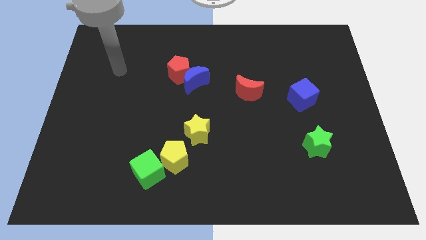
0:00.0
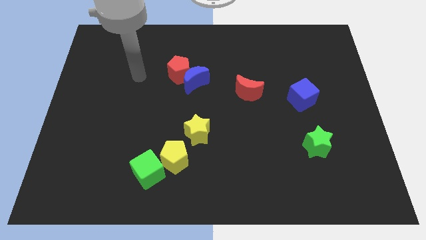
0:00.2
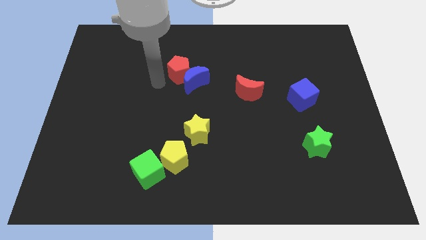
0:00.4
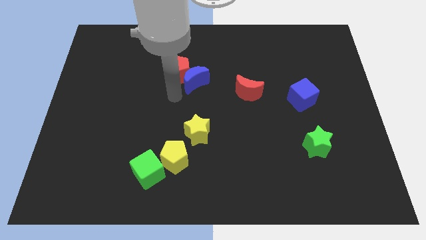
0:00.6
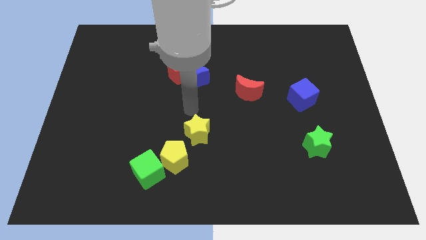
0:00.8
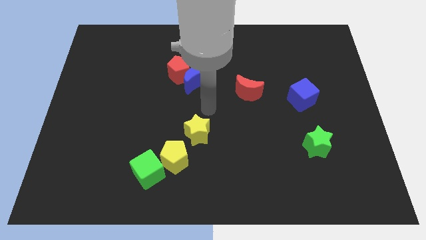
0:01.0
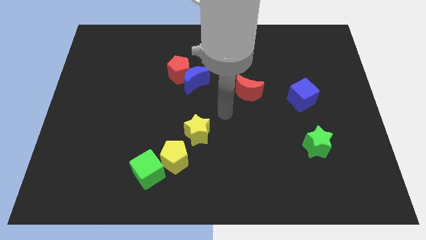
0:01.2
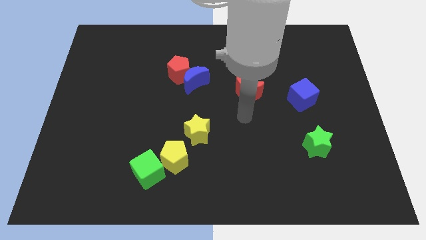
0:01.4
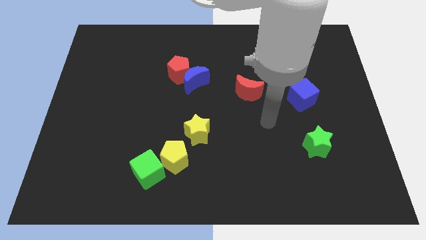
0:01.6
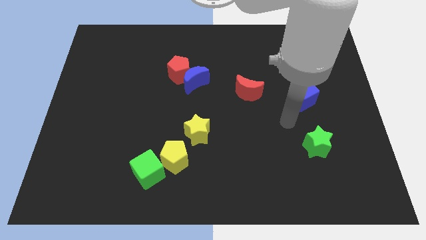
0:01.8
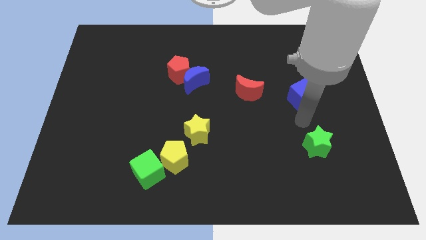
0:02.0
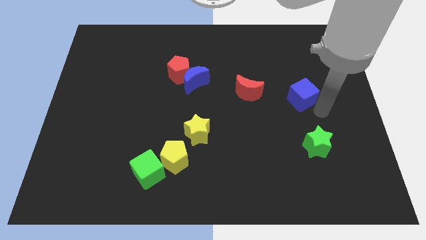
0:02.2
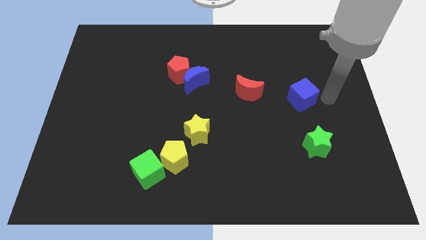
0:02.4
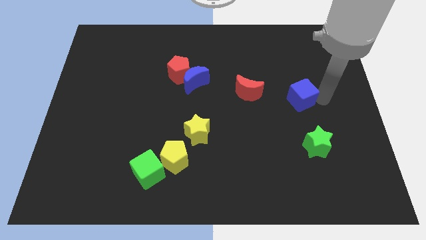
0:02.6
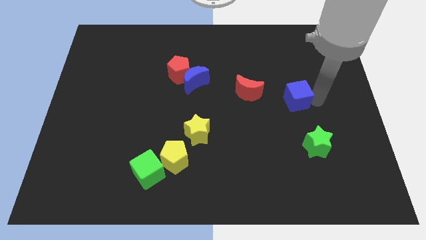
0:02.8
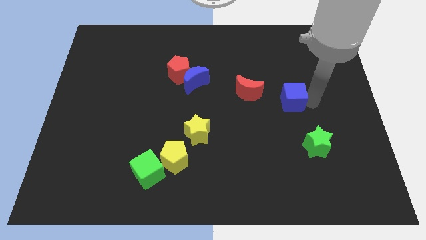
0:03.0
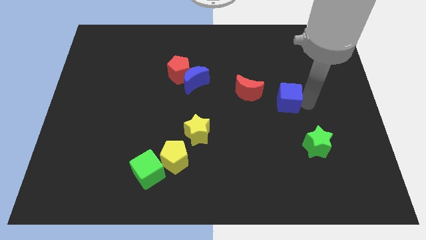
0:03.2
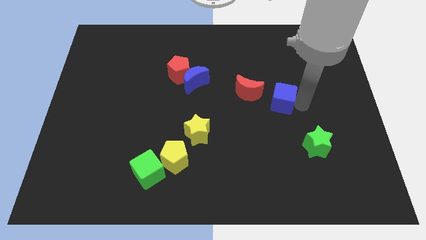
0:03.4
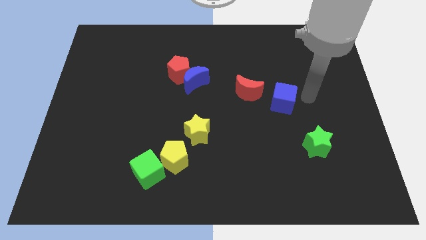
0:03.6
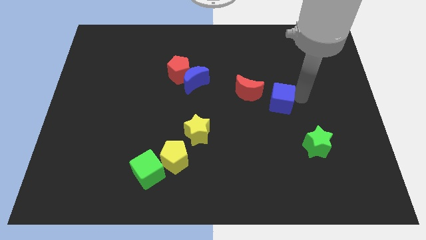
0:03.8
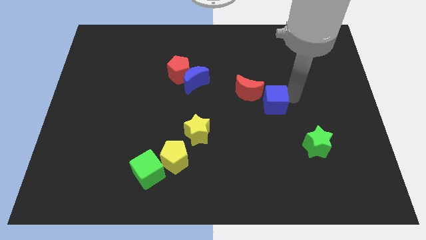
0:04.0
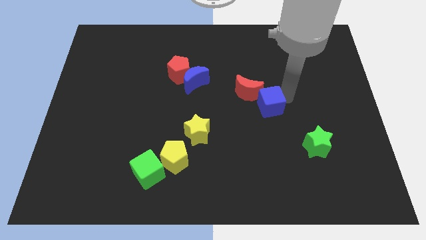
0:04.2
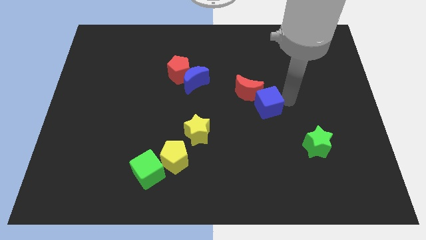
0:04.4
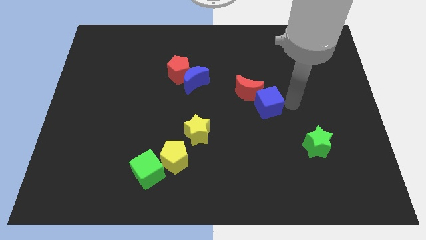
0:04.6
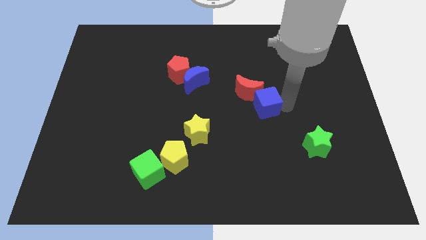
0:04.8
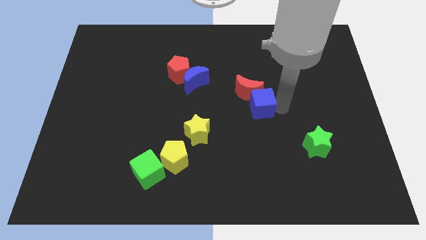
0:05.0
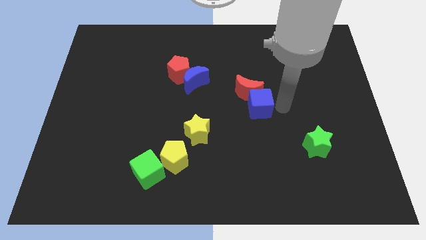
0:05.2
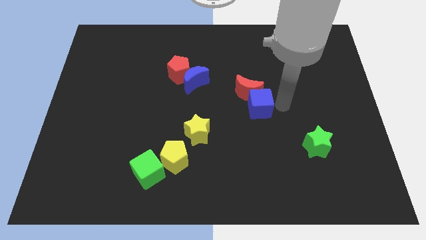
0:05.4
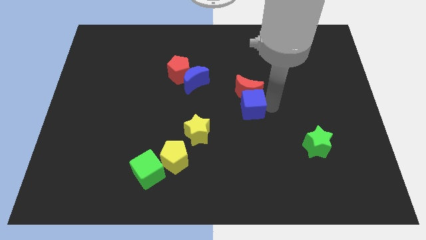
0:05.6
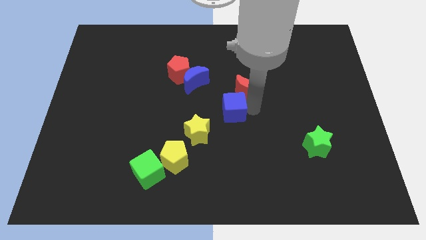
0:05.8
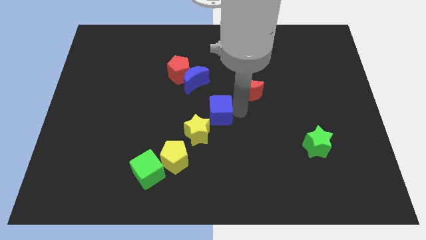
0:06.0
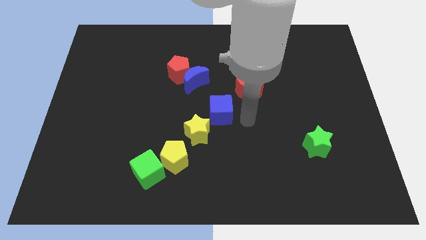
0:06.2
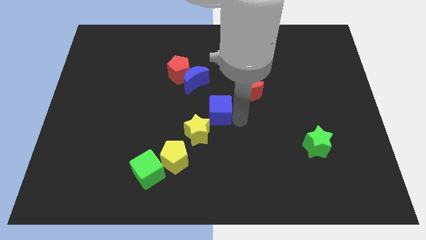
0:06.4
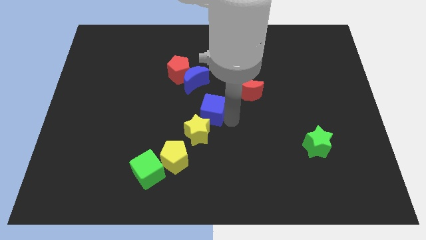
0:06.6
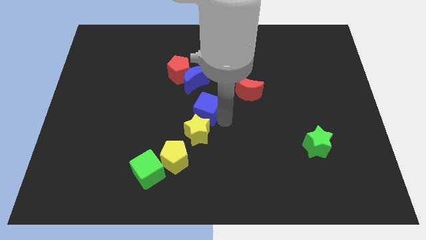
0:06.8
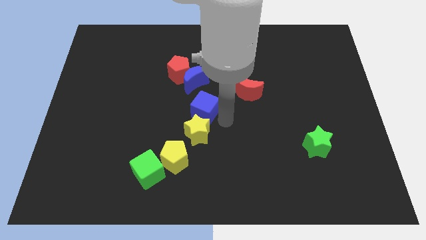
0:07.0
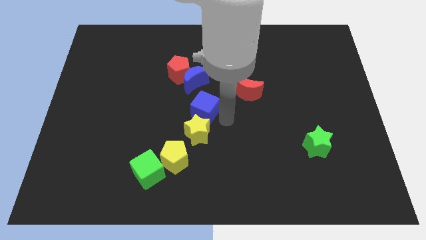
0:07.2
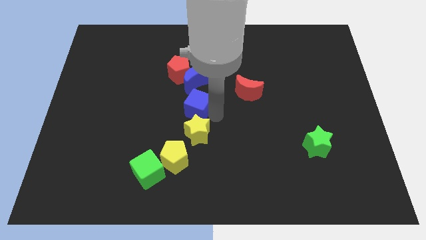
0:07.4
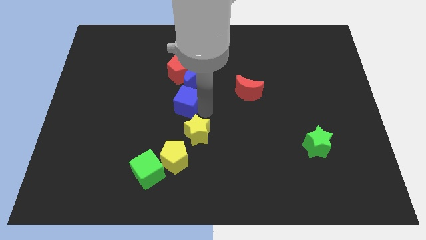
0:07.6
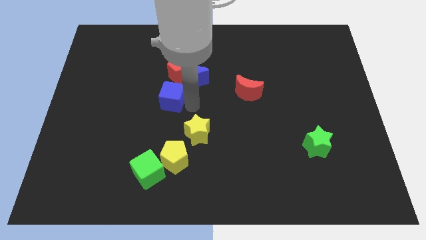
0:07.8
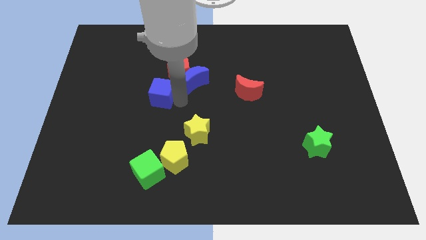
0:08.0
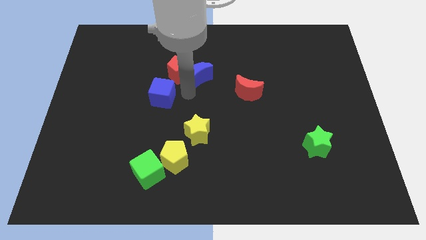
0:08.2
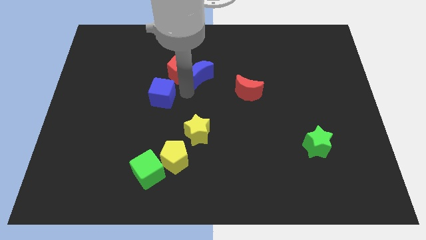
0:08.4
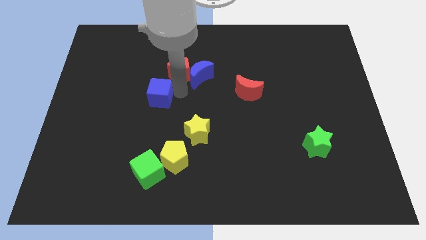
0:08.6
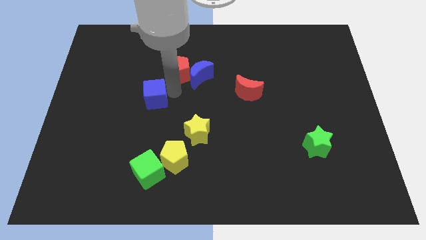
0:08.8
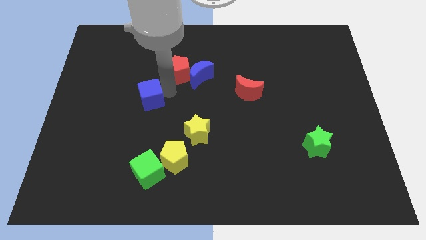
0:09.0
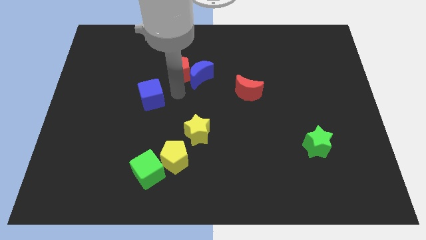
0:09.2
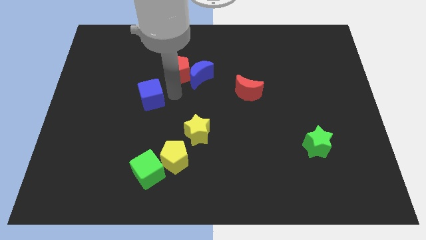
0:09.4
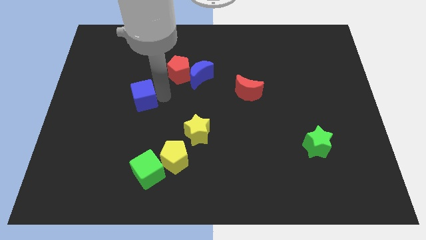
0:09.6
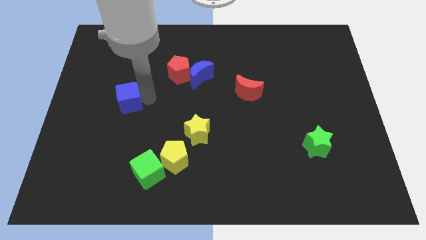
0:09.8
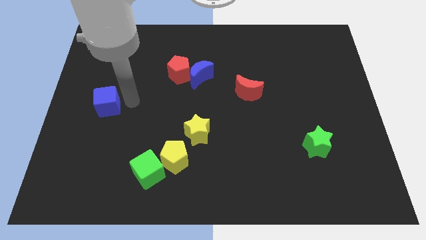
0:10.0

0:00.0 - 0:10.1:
push the blue cube to the left side of the board

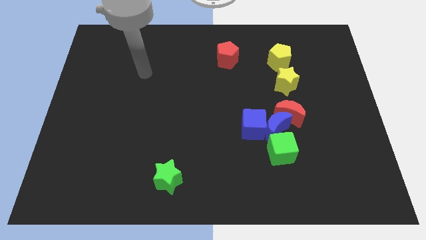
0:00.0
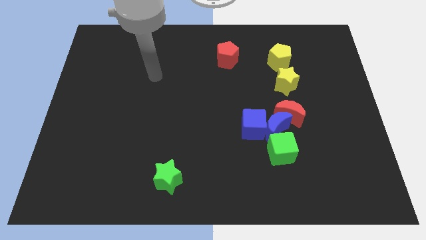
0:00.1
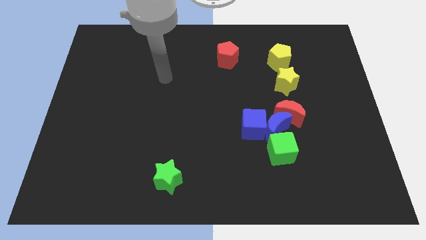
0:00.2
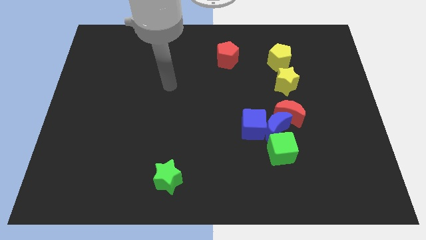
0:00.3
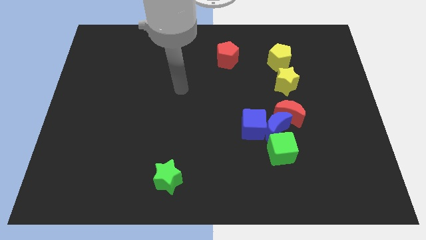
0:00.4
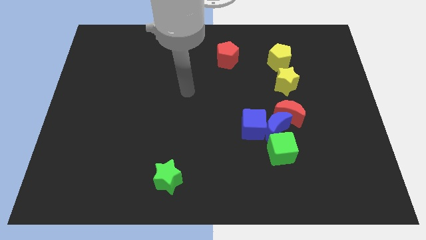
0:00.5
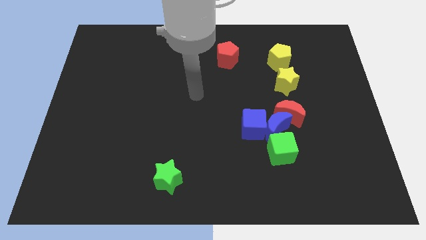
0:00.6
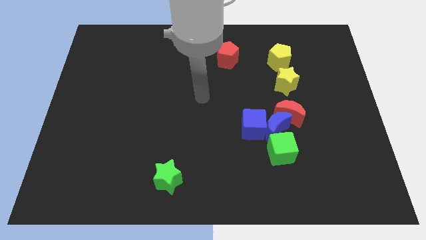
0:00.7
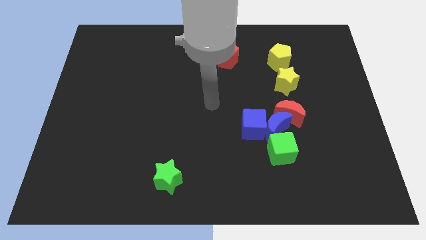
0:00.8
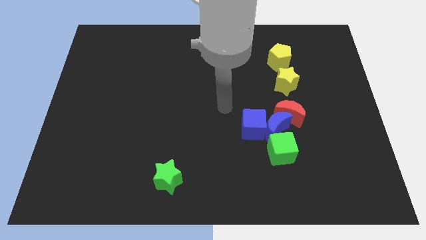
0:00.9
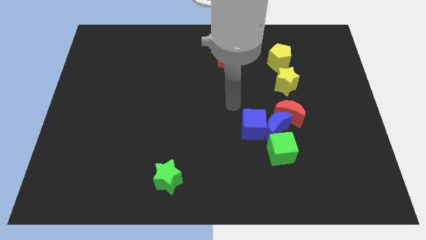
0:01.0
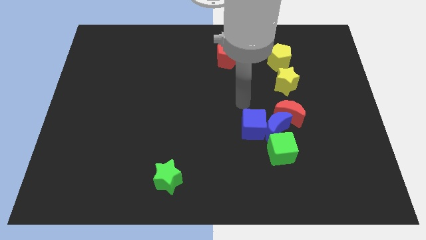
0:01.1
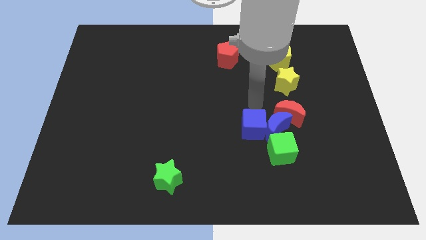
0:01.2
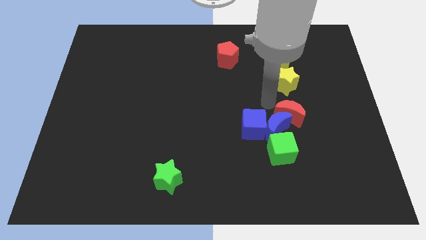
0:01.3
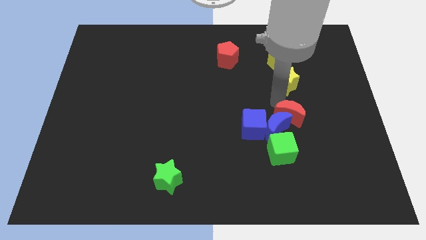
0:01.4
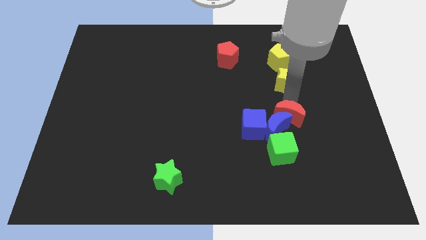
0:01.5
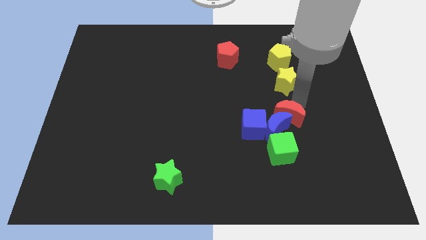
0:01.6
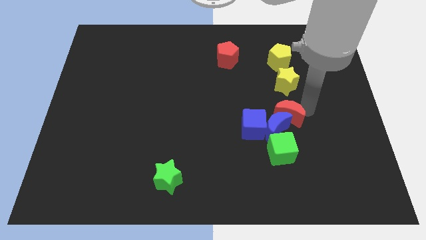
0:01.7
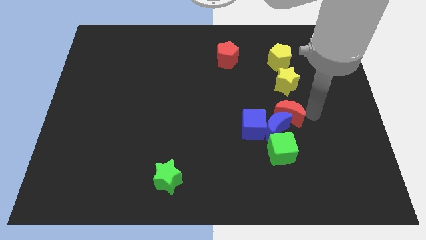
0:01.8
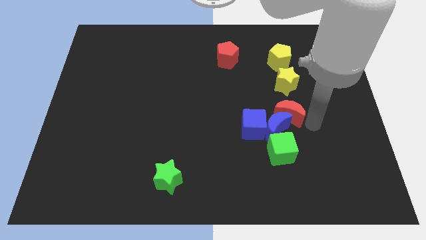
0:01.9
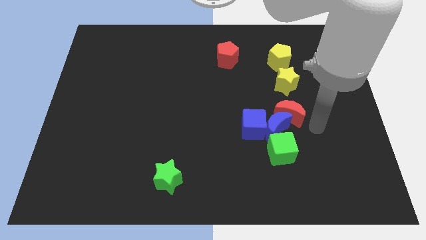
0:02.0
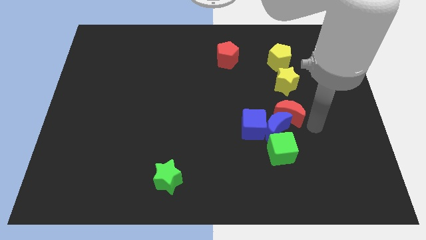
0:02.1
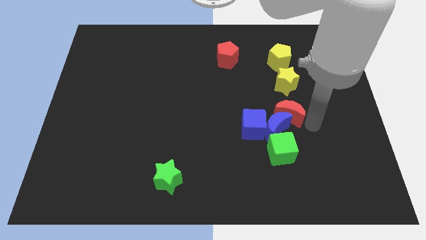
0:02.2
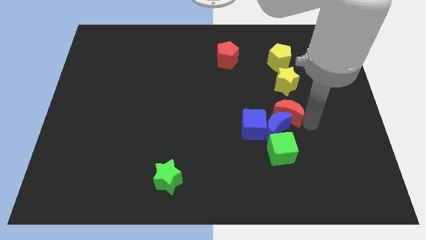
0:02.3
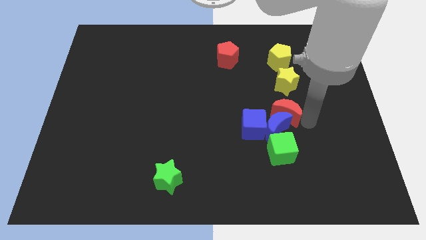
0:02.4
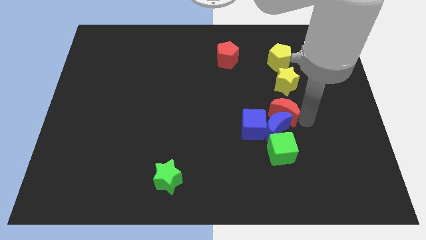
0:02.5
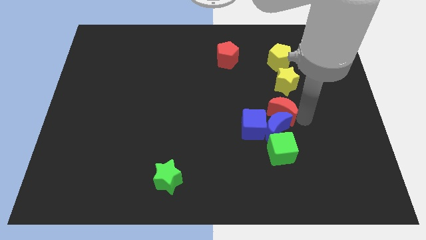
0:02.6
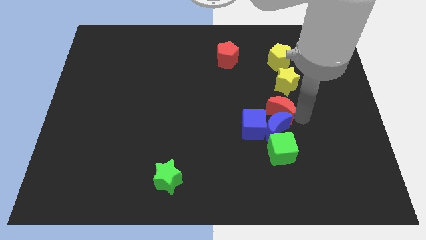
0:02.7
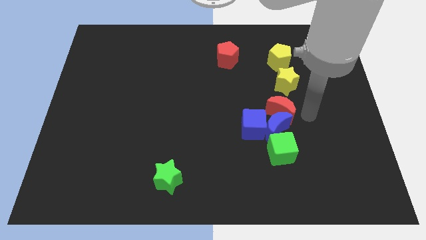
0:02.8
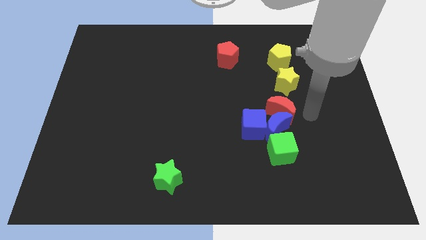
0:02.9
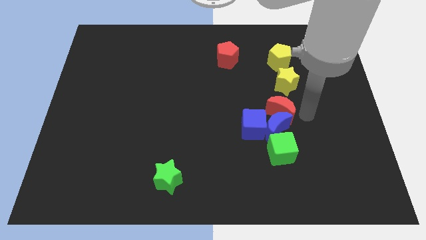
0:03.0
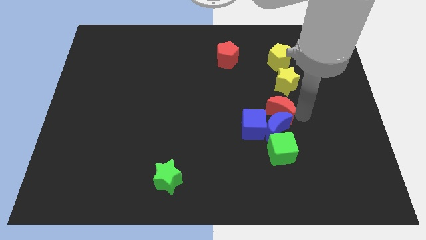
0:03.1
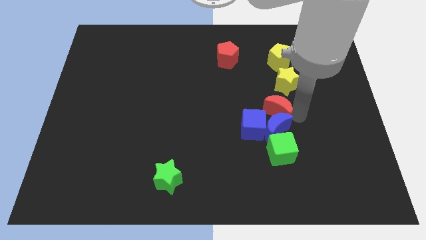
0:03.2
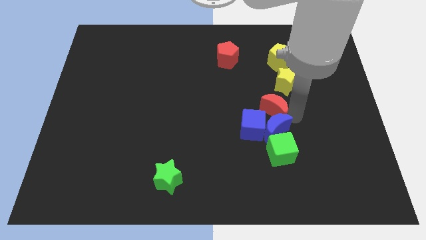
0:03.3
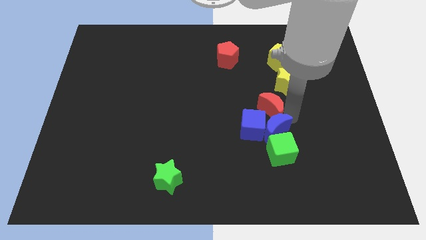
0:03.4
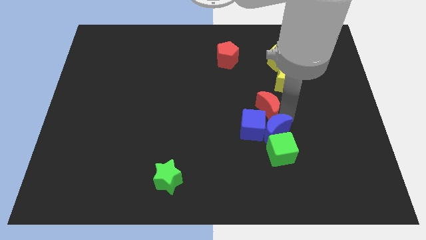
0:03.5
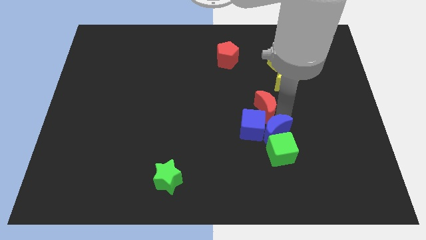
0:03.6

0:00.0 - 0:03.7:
push the red moon to the middle of the board
